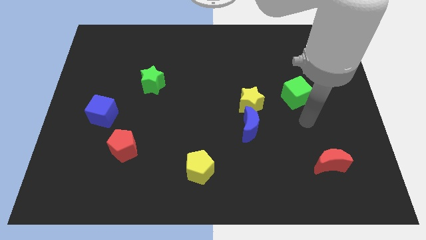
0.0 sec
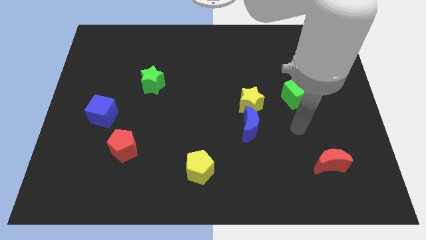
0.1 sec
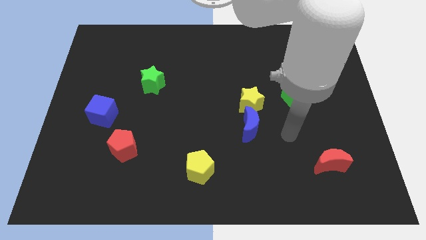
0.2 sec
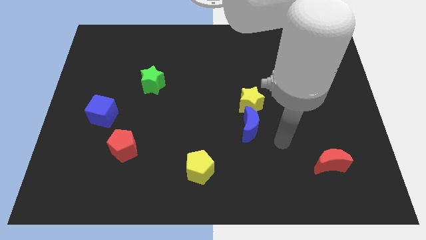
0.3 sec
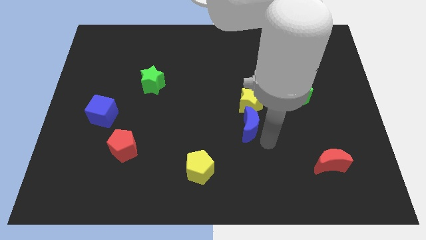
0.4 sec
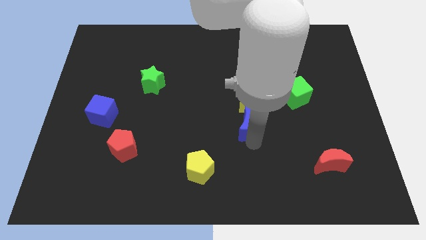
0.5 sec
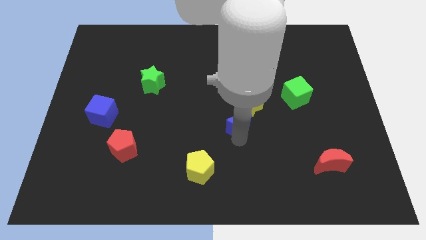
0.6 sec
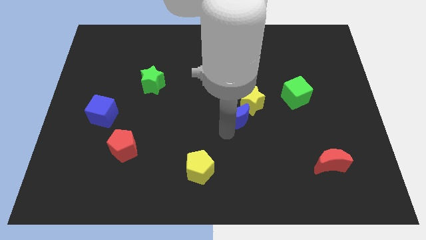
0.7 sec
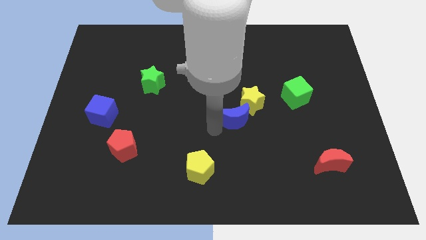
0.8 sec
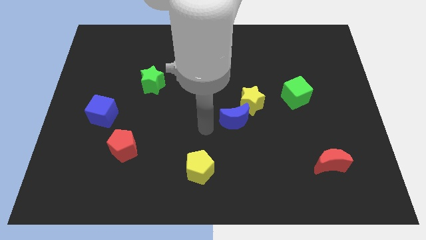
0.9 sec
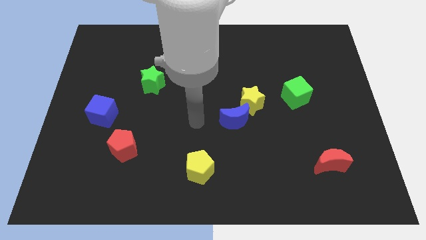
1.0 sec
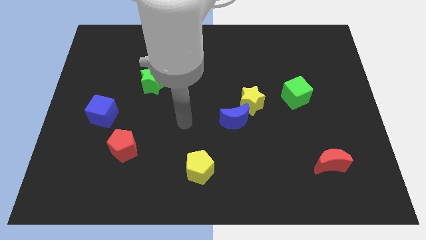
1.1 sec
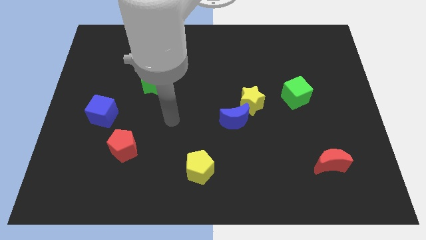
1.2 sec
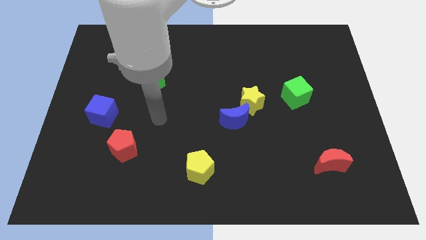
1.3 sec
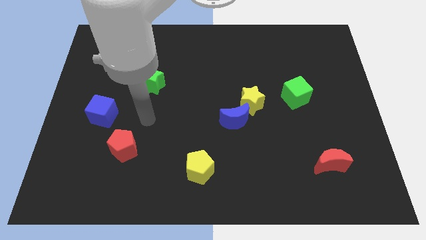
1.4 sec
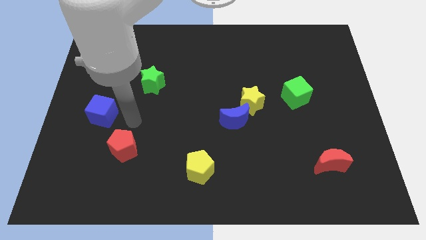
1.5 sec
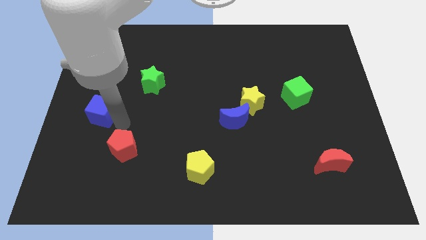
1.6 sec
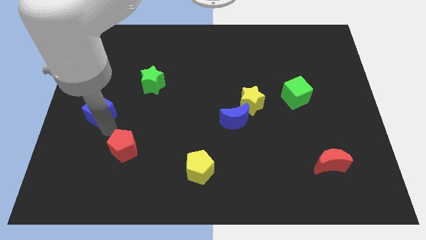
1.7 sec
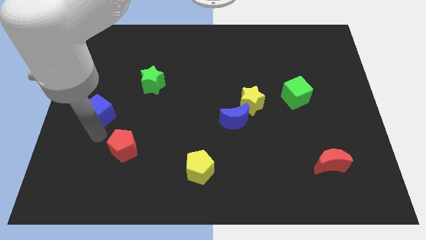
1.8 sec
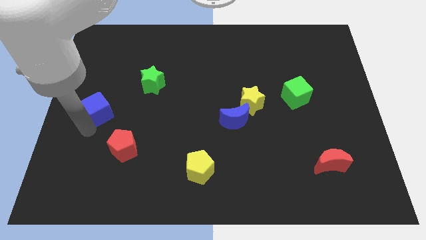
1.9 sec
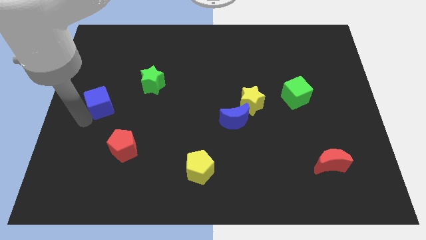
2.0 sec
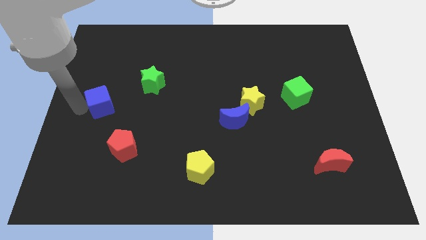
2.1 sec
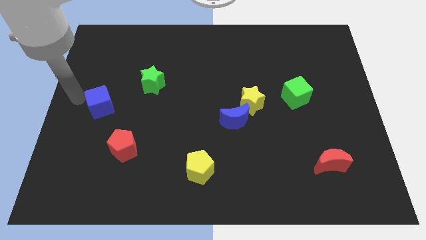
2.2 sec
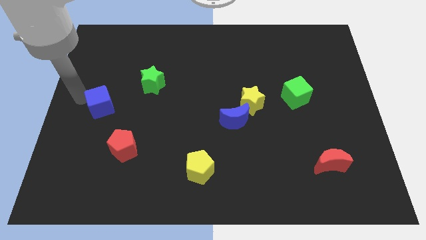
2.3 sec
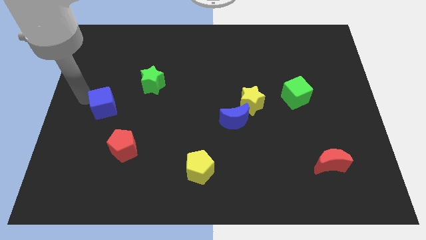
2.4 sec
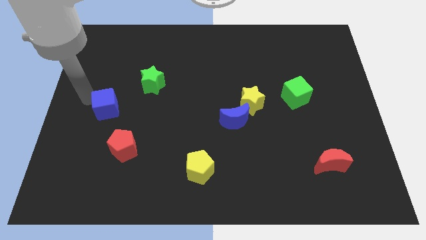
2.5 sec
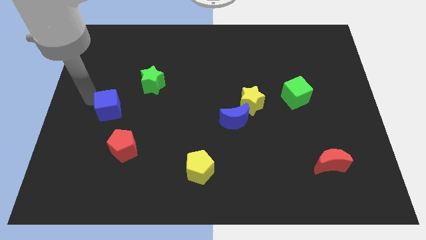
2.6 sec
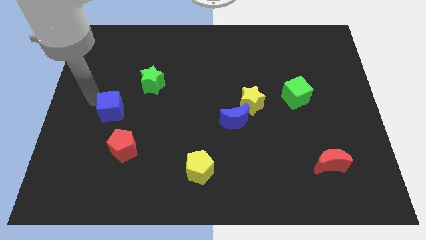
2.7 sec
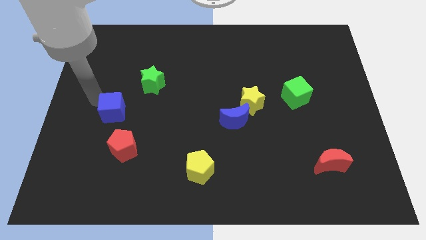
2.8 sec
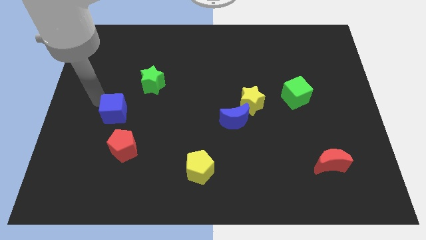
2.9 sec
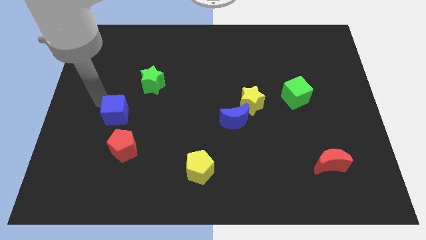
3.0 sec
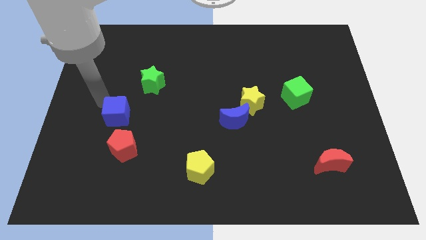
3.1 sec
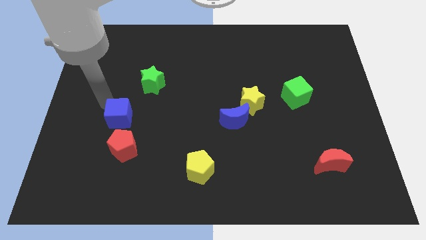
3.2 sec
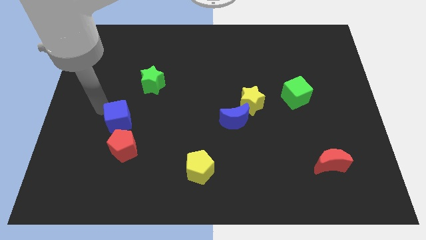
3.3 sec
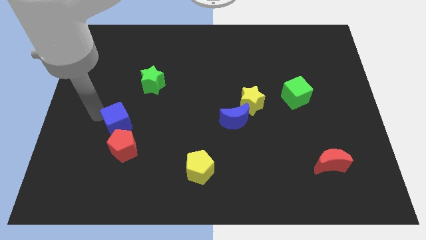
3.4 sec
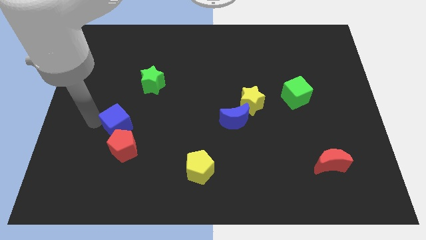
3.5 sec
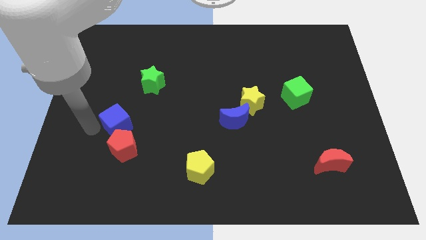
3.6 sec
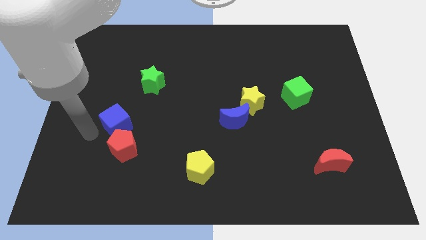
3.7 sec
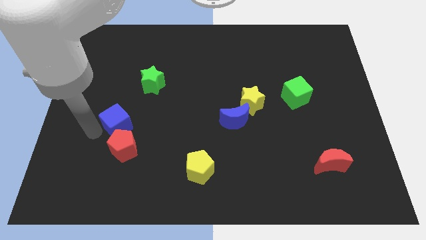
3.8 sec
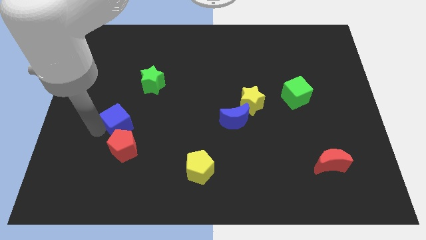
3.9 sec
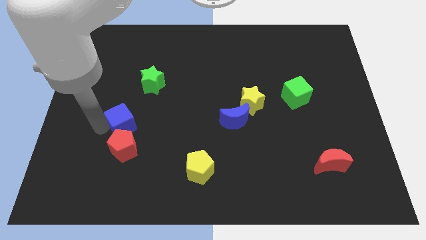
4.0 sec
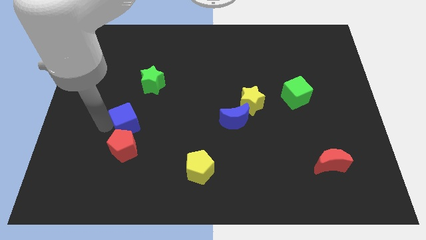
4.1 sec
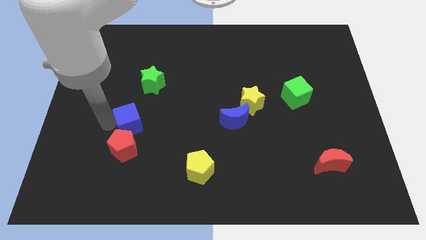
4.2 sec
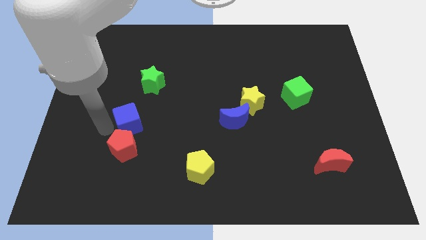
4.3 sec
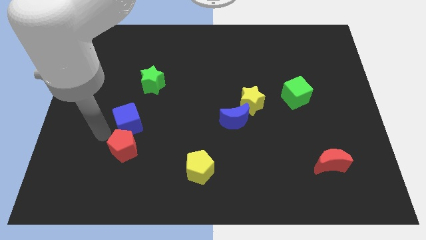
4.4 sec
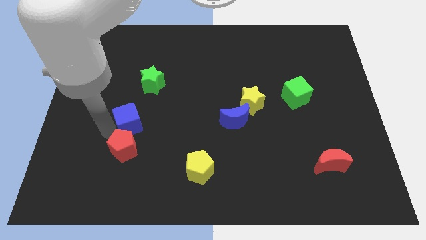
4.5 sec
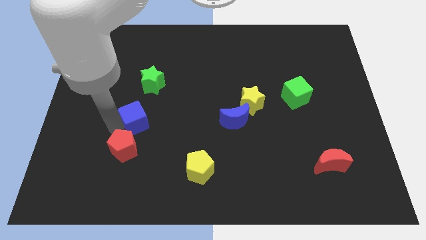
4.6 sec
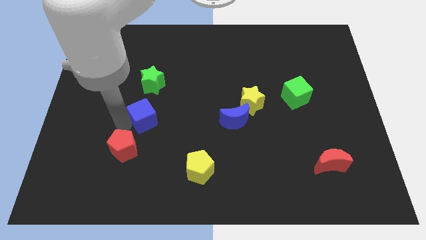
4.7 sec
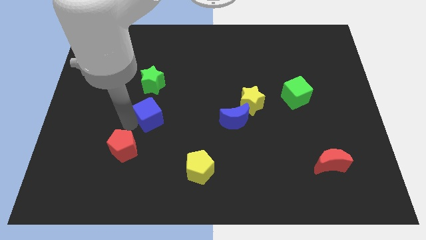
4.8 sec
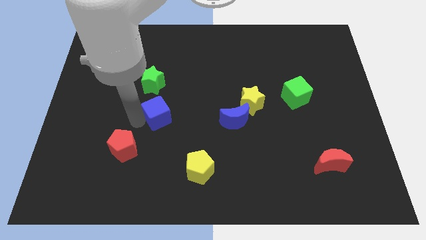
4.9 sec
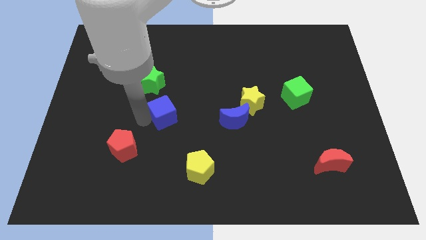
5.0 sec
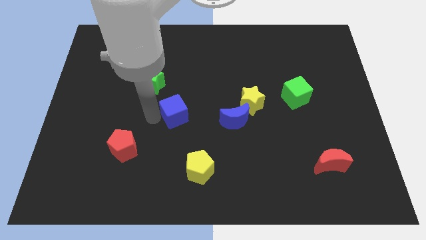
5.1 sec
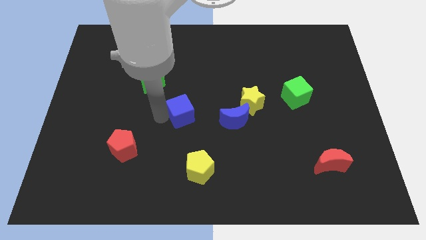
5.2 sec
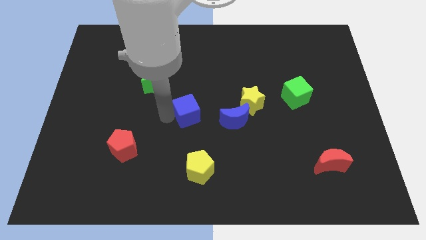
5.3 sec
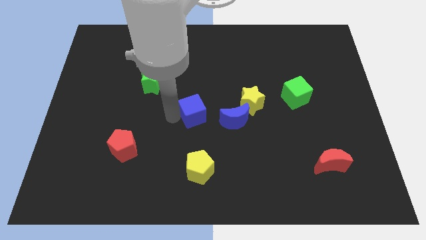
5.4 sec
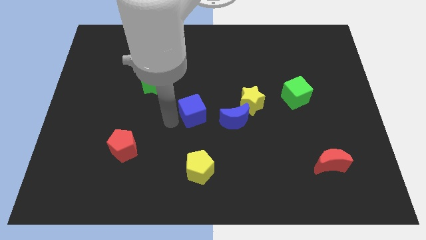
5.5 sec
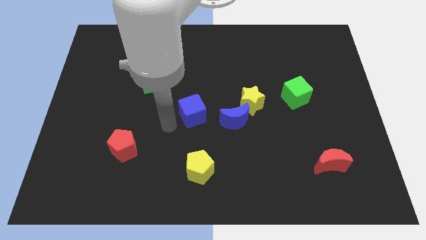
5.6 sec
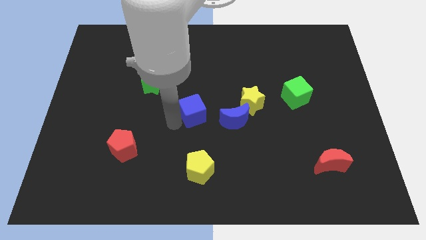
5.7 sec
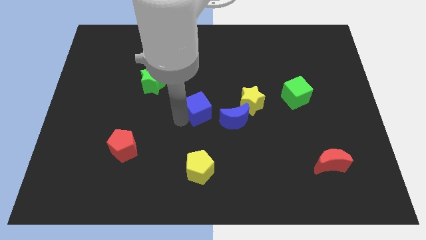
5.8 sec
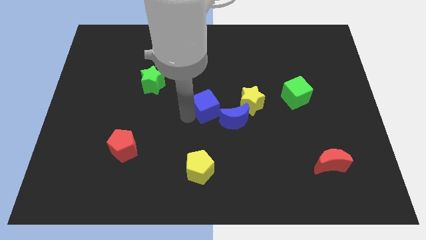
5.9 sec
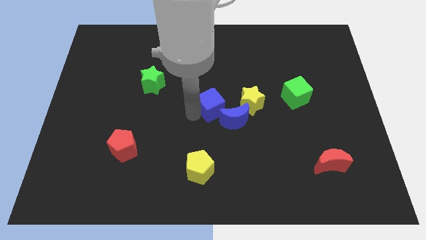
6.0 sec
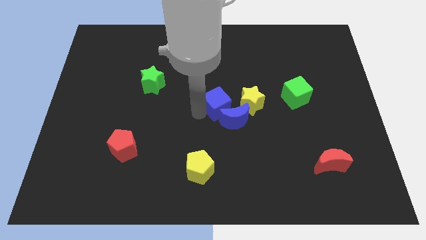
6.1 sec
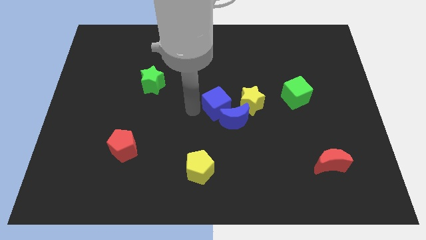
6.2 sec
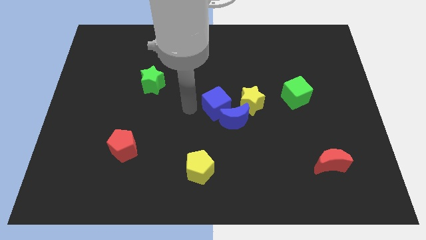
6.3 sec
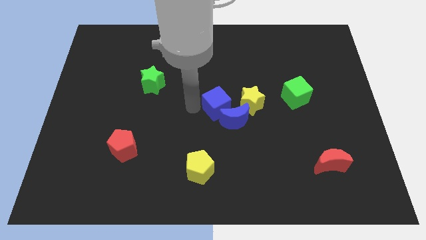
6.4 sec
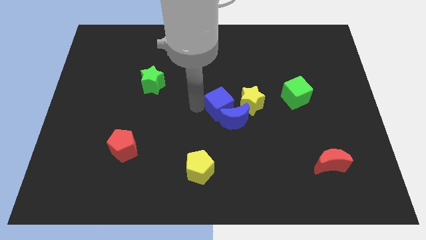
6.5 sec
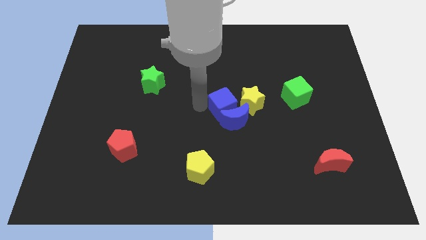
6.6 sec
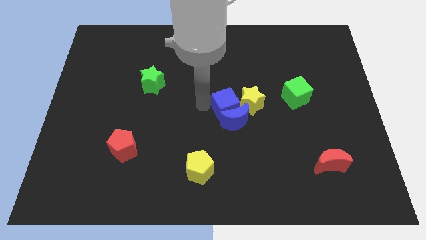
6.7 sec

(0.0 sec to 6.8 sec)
put the blue cube towards the yellow star

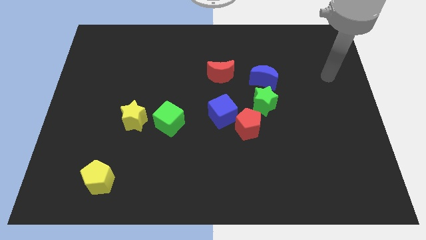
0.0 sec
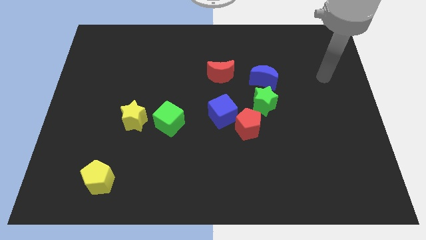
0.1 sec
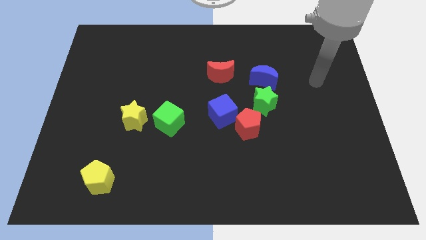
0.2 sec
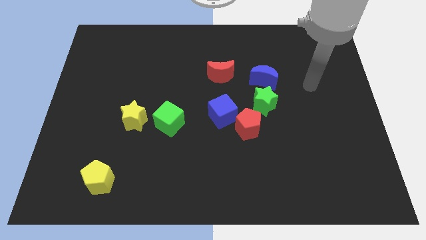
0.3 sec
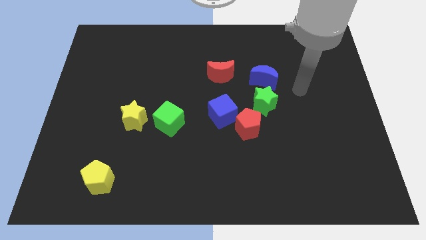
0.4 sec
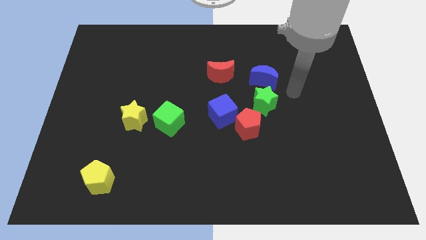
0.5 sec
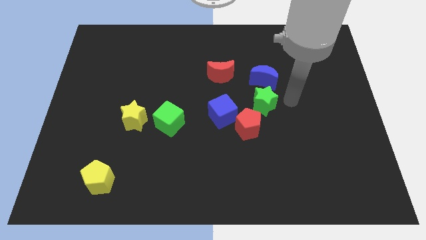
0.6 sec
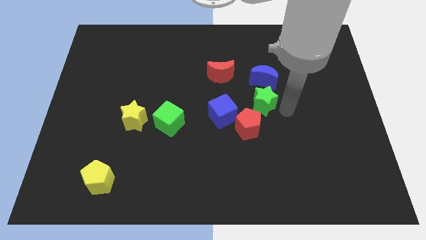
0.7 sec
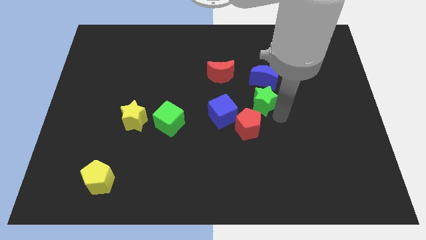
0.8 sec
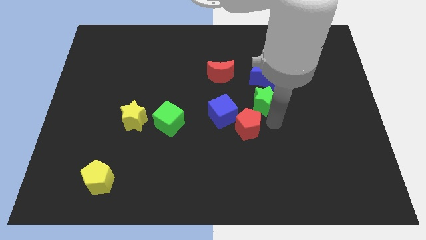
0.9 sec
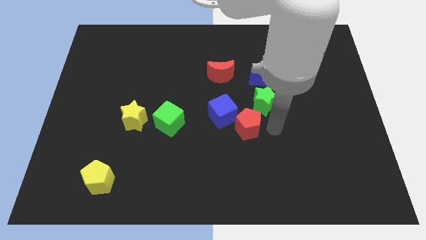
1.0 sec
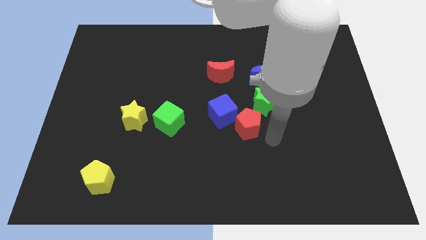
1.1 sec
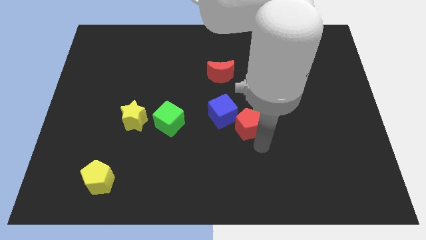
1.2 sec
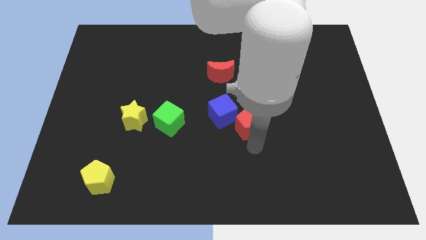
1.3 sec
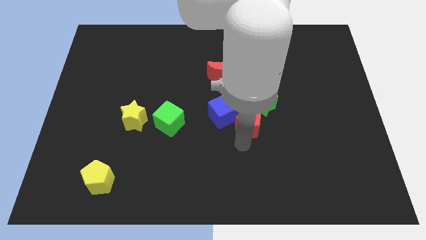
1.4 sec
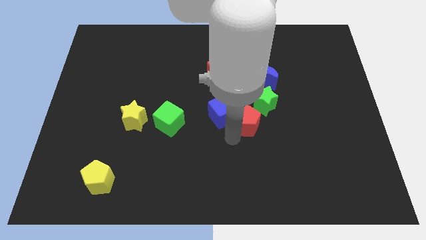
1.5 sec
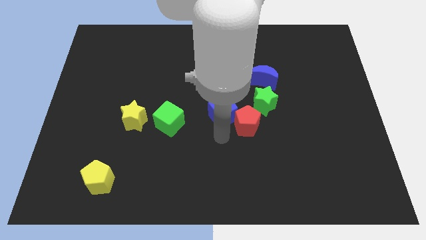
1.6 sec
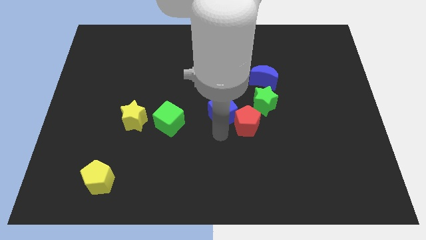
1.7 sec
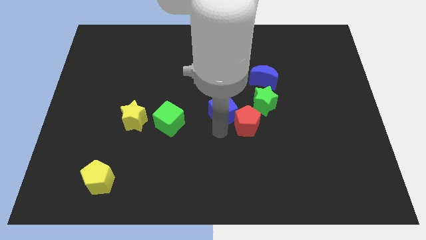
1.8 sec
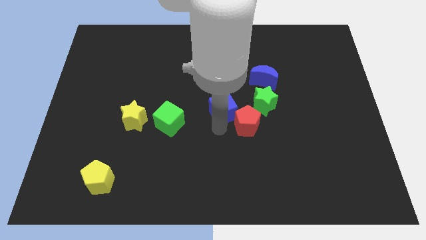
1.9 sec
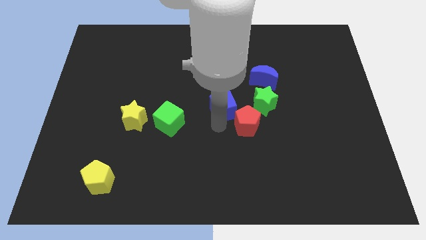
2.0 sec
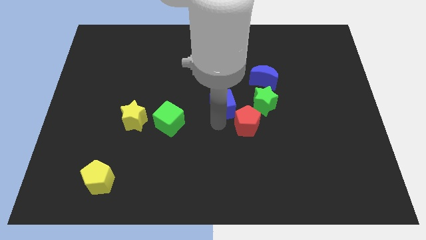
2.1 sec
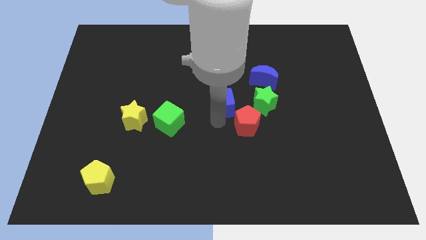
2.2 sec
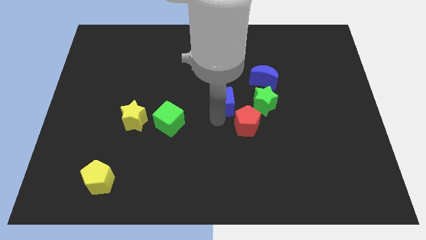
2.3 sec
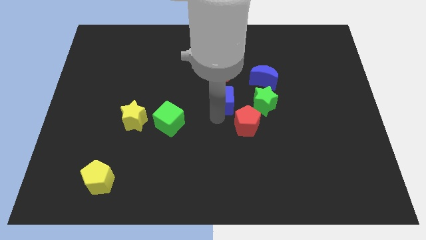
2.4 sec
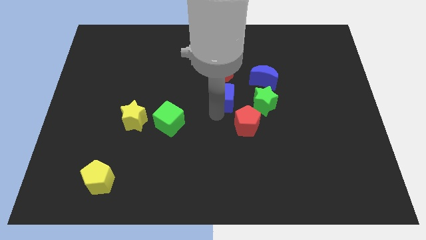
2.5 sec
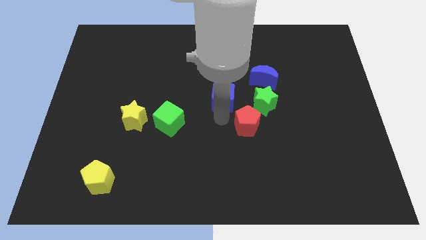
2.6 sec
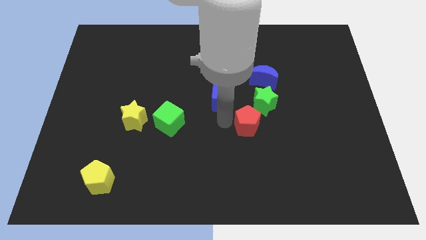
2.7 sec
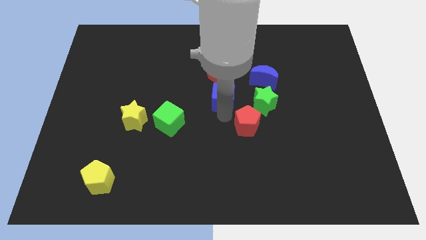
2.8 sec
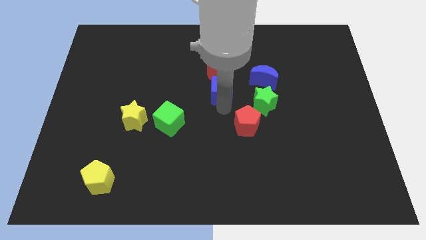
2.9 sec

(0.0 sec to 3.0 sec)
move the blue cube towards the red moon
